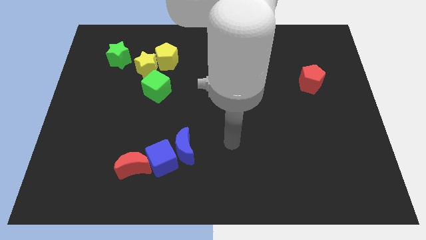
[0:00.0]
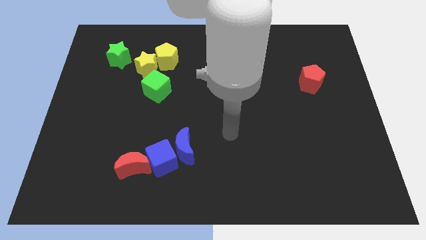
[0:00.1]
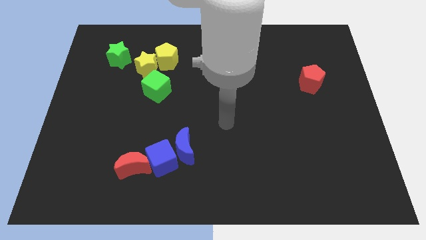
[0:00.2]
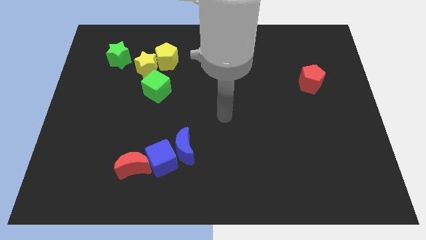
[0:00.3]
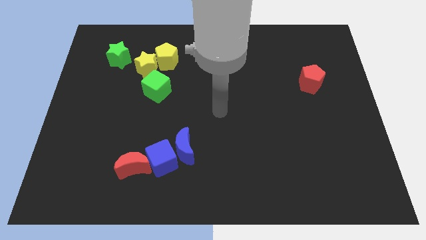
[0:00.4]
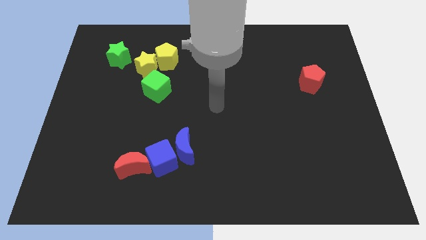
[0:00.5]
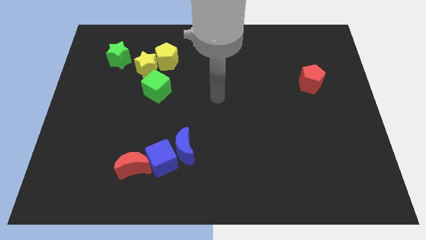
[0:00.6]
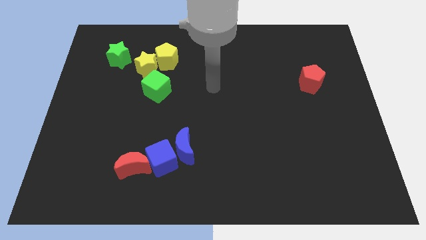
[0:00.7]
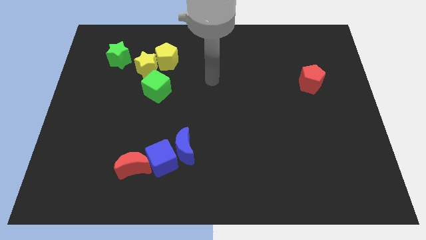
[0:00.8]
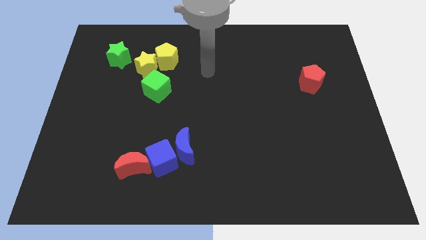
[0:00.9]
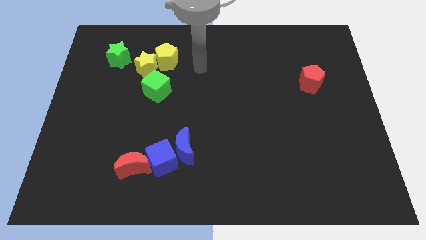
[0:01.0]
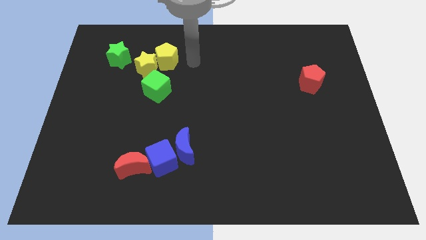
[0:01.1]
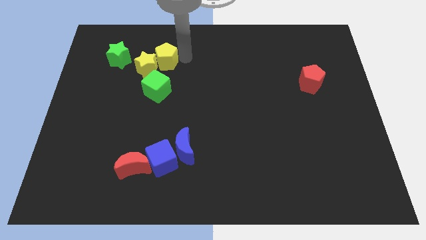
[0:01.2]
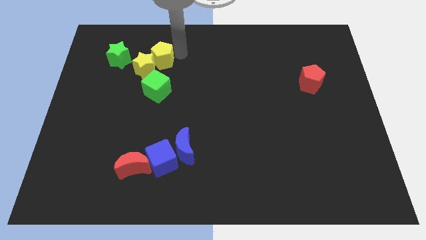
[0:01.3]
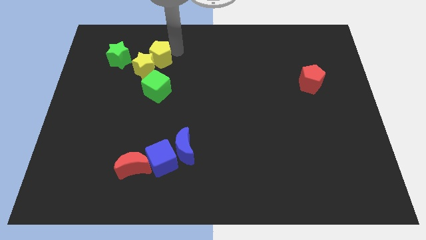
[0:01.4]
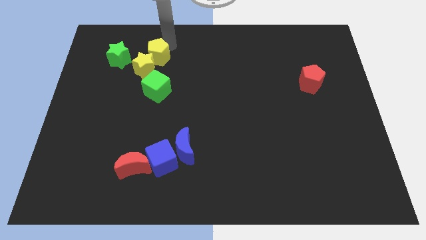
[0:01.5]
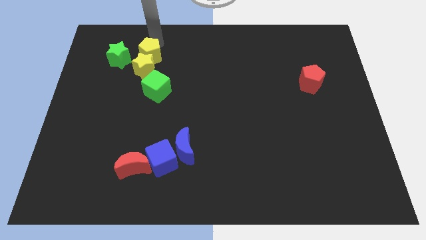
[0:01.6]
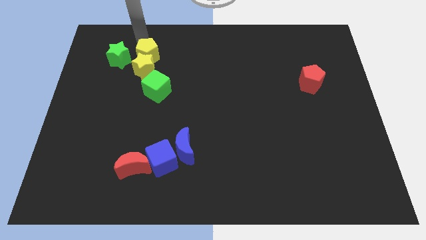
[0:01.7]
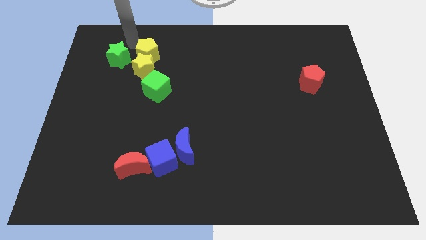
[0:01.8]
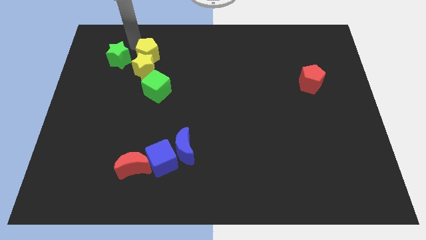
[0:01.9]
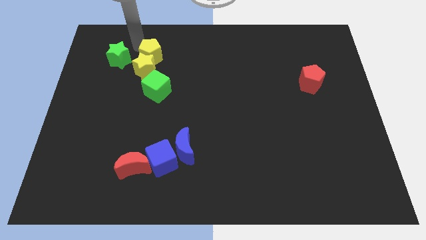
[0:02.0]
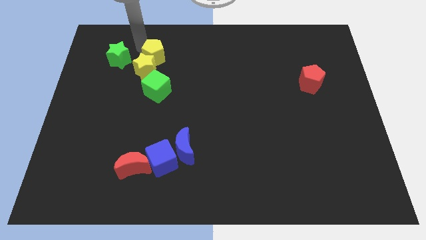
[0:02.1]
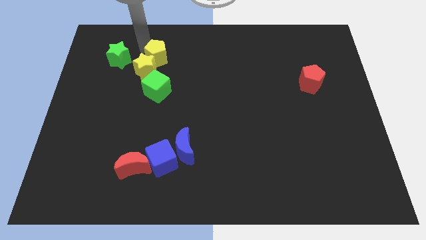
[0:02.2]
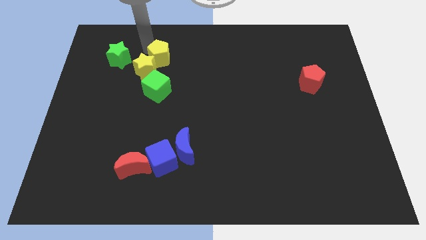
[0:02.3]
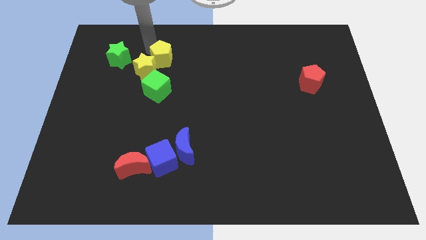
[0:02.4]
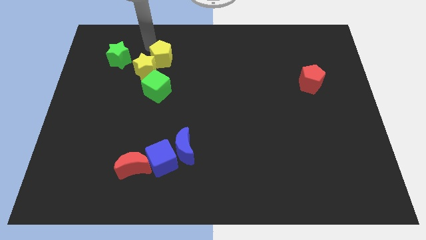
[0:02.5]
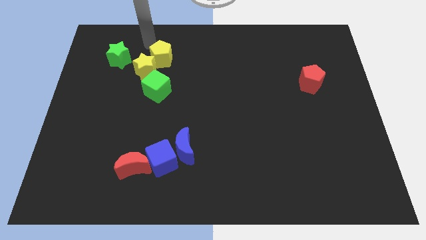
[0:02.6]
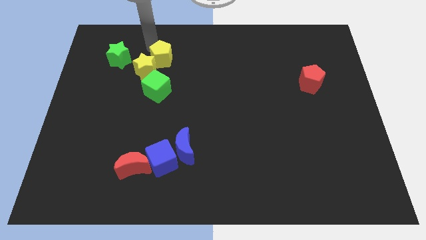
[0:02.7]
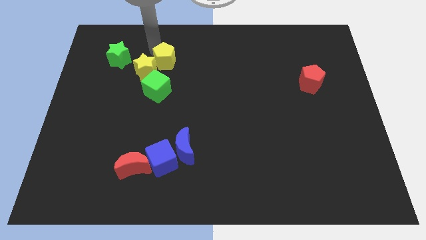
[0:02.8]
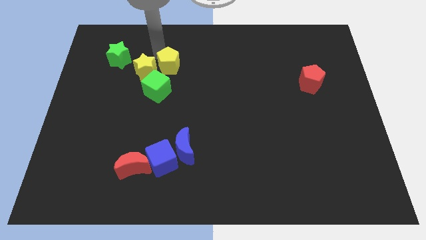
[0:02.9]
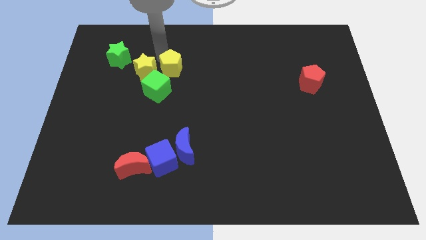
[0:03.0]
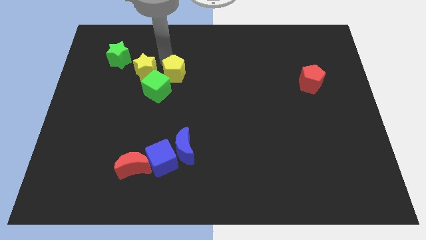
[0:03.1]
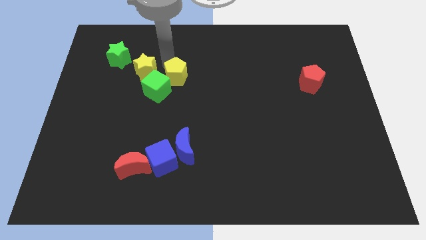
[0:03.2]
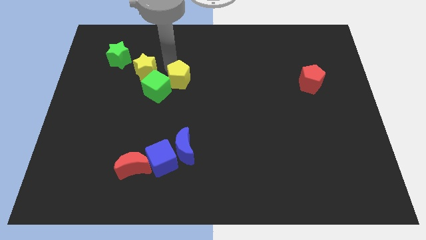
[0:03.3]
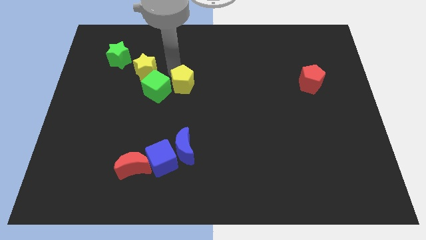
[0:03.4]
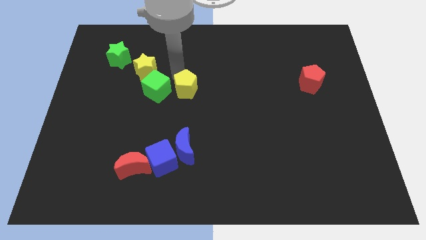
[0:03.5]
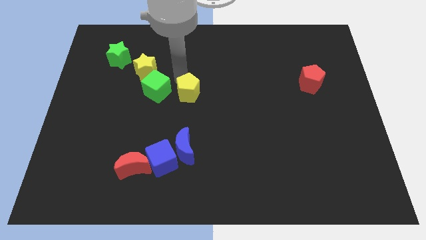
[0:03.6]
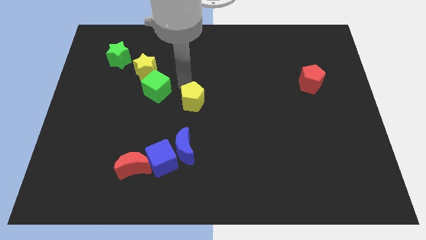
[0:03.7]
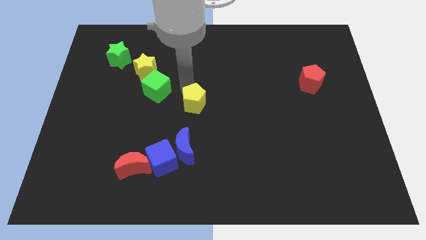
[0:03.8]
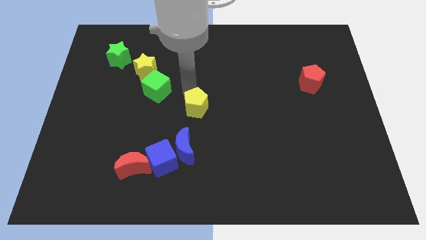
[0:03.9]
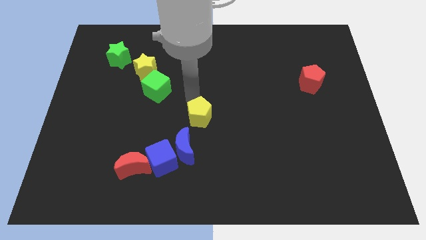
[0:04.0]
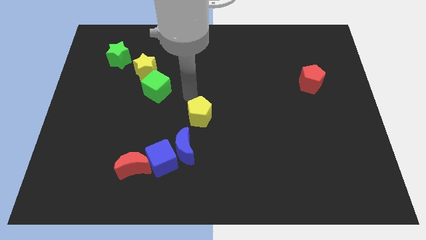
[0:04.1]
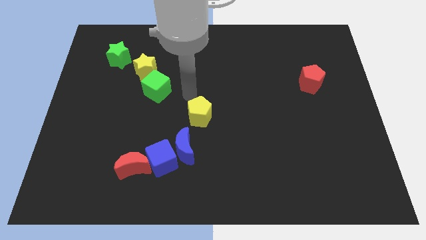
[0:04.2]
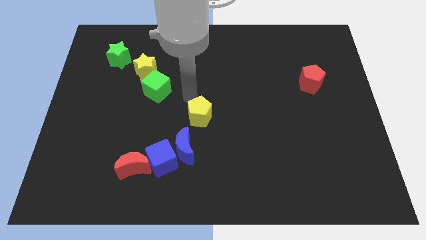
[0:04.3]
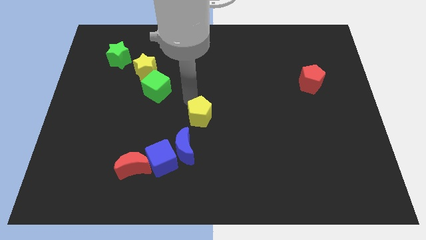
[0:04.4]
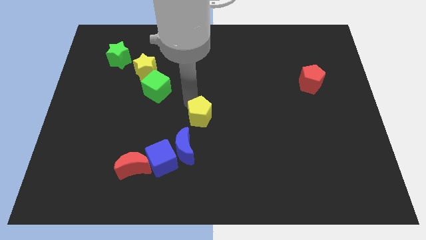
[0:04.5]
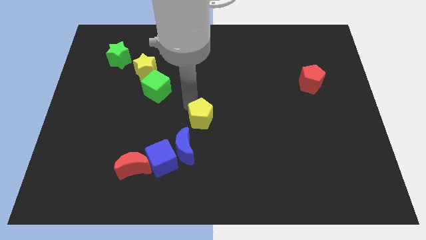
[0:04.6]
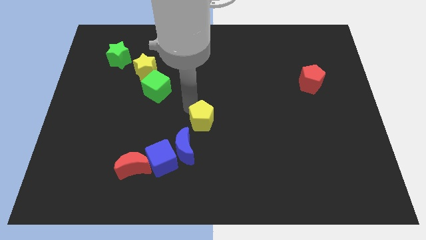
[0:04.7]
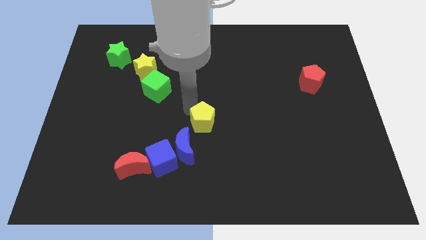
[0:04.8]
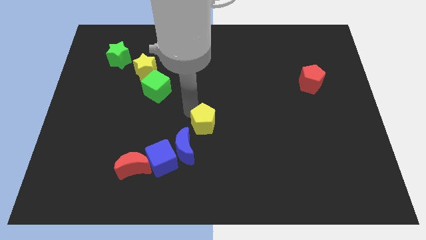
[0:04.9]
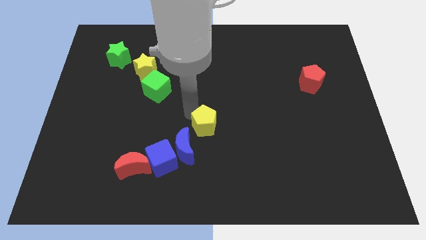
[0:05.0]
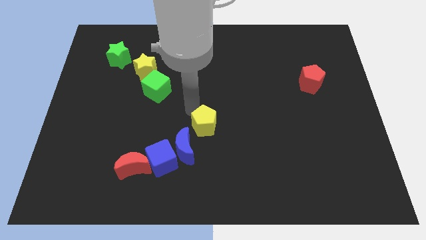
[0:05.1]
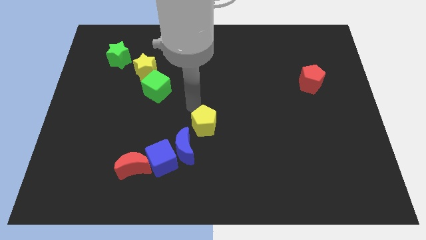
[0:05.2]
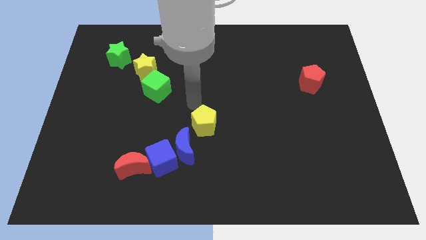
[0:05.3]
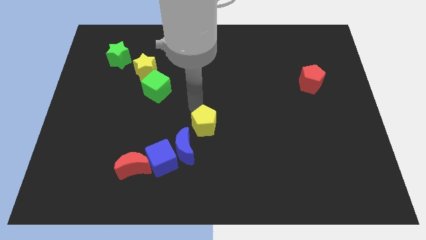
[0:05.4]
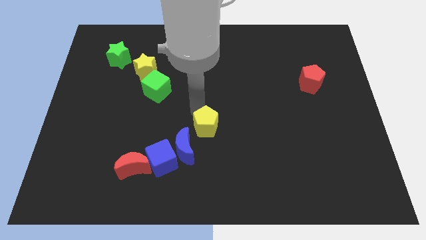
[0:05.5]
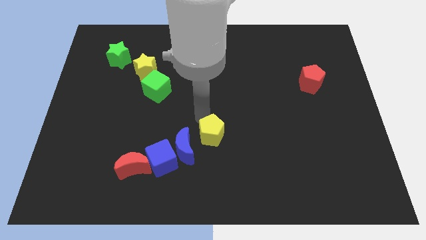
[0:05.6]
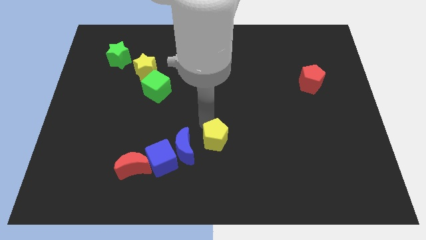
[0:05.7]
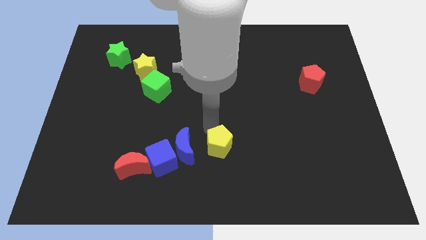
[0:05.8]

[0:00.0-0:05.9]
put the yellow pentagon right of the blue cube

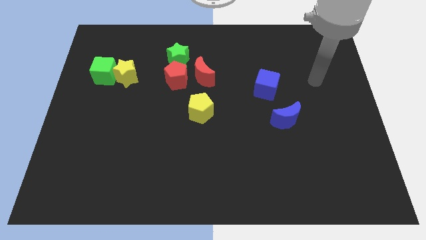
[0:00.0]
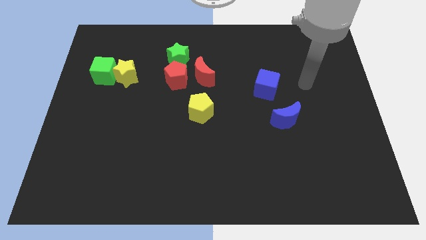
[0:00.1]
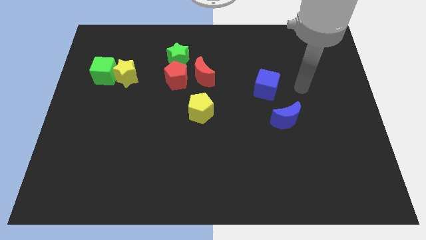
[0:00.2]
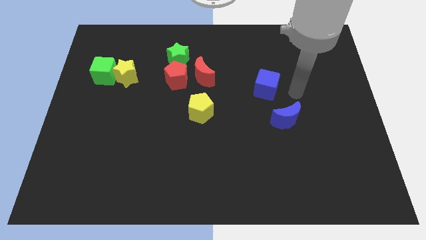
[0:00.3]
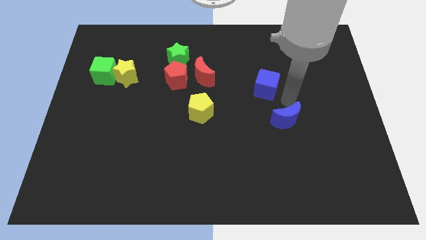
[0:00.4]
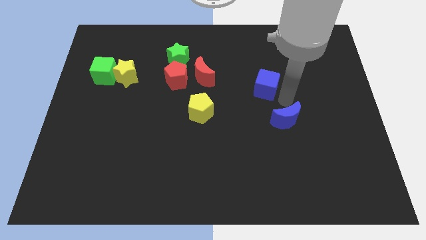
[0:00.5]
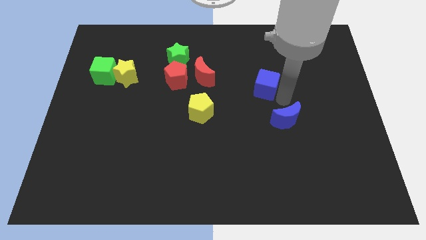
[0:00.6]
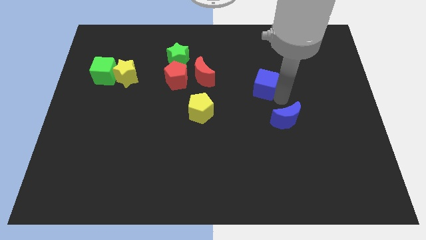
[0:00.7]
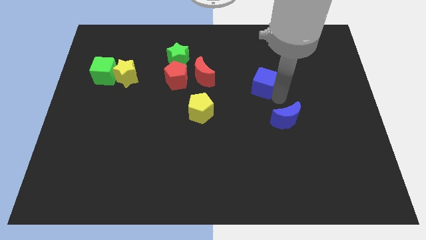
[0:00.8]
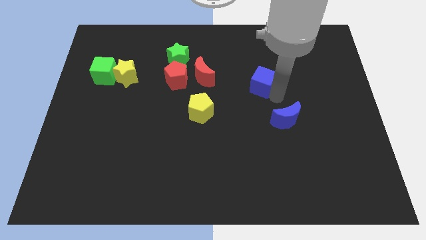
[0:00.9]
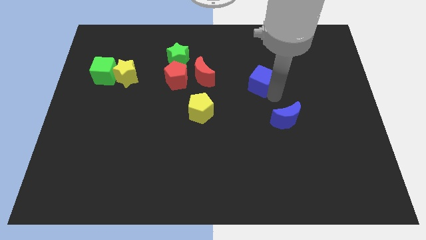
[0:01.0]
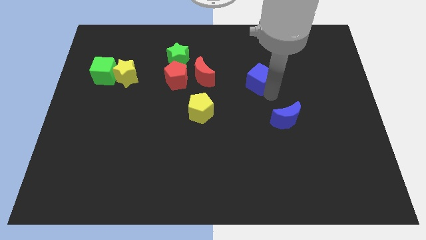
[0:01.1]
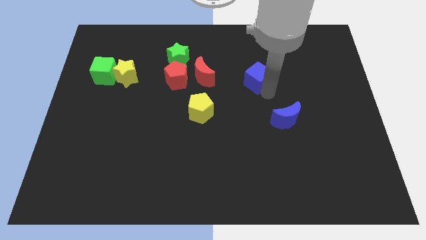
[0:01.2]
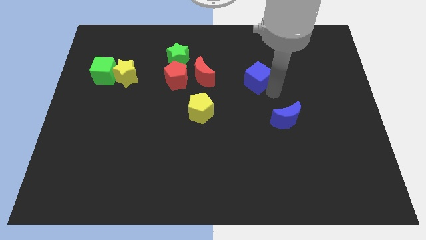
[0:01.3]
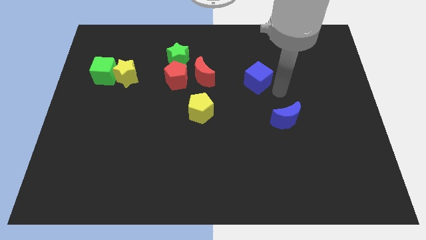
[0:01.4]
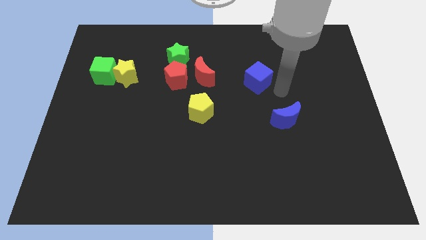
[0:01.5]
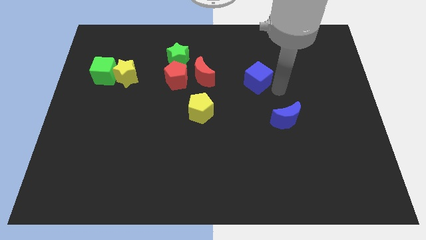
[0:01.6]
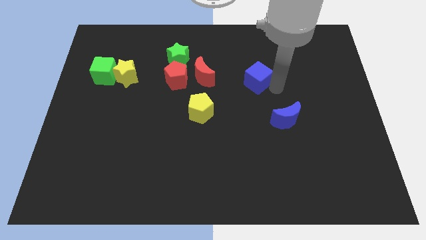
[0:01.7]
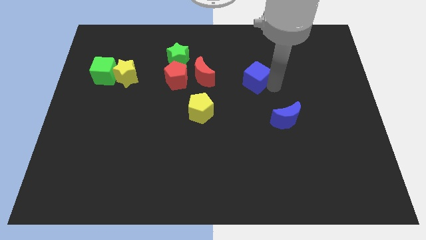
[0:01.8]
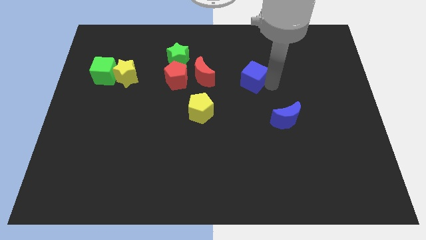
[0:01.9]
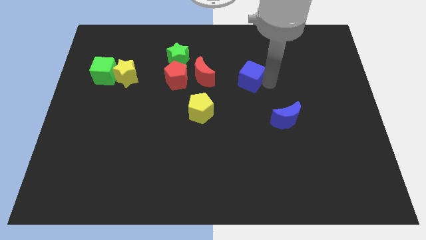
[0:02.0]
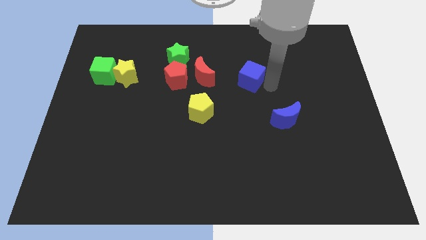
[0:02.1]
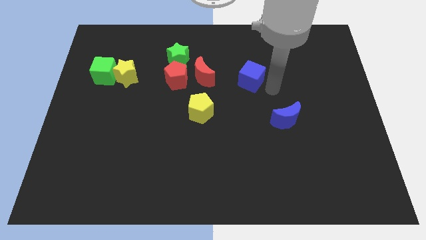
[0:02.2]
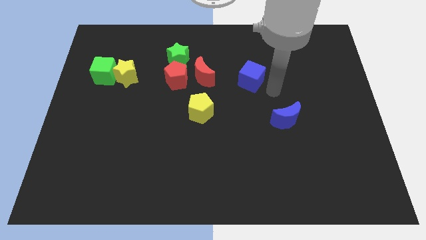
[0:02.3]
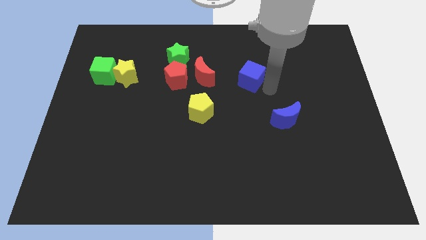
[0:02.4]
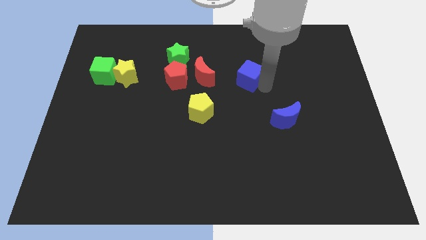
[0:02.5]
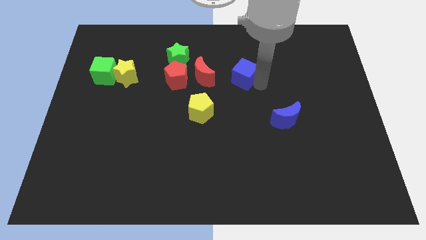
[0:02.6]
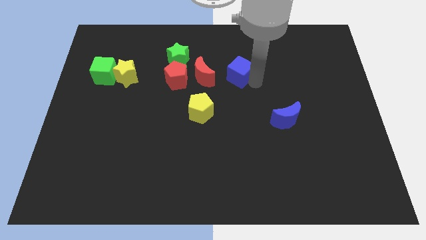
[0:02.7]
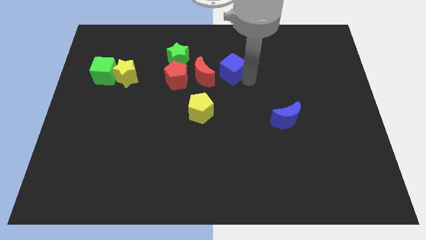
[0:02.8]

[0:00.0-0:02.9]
put the blue cube diagonally up and to the right of the red moon
